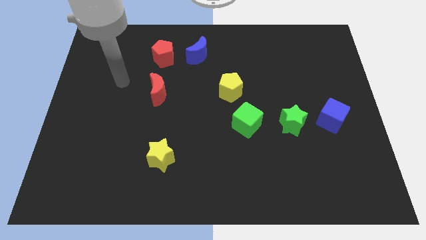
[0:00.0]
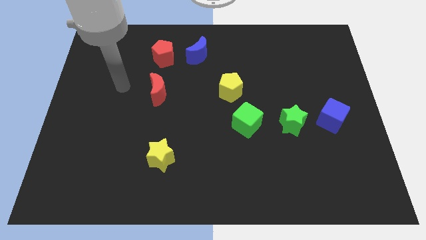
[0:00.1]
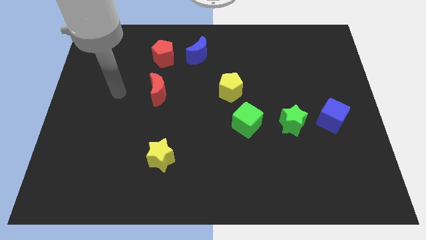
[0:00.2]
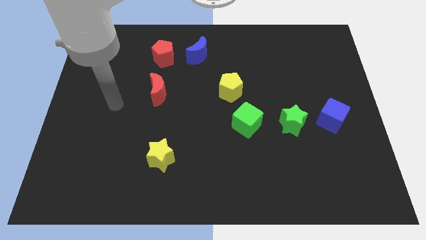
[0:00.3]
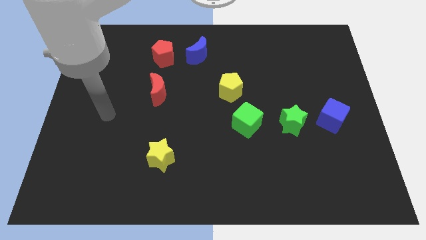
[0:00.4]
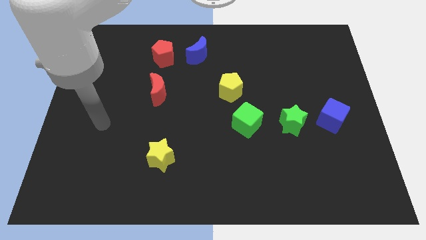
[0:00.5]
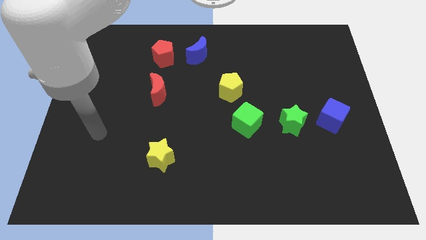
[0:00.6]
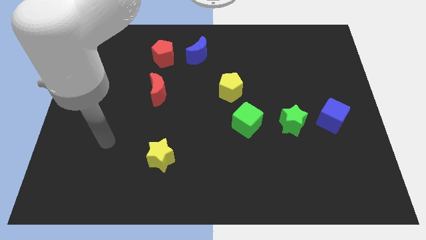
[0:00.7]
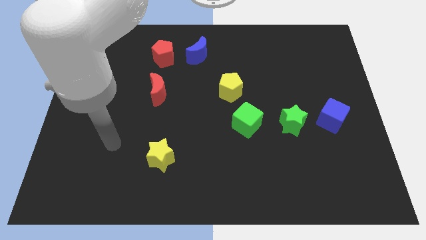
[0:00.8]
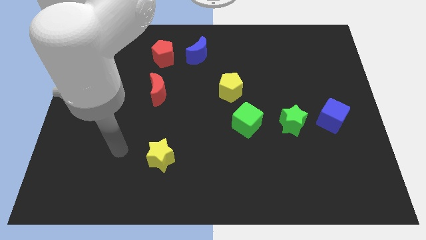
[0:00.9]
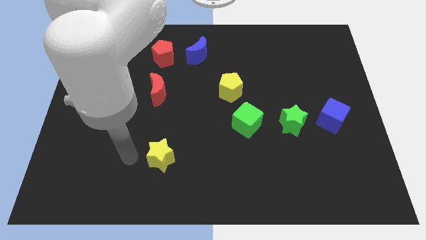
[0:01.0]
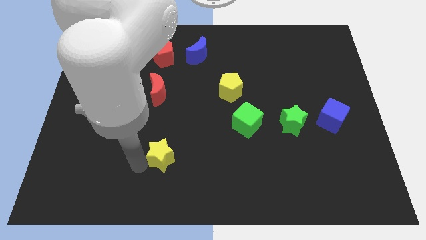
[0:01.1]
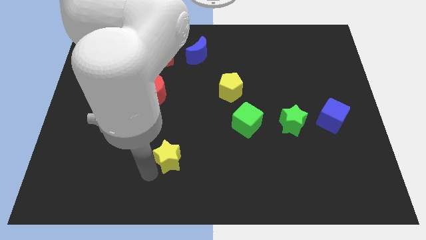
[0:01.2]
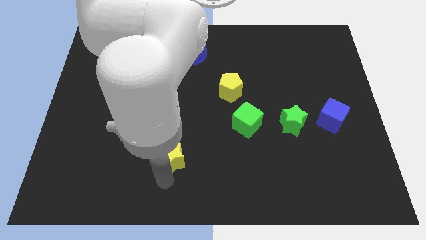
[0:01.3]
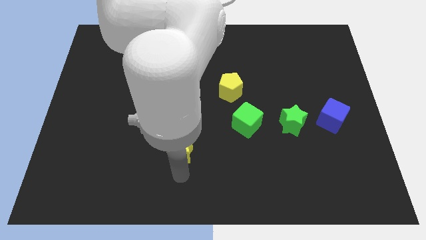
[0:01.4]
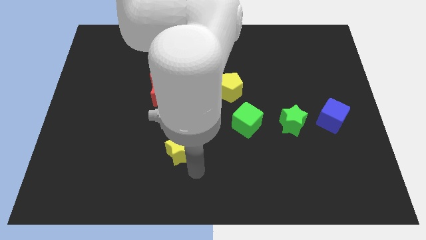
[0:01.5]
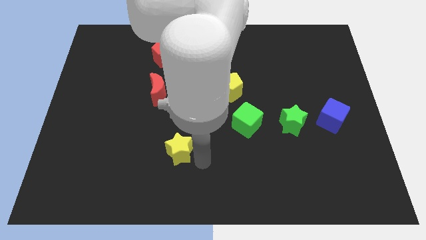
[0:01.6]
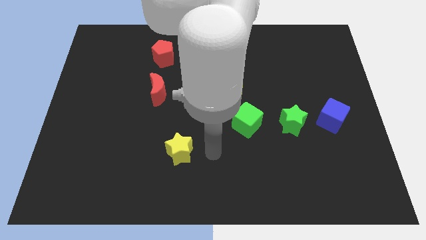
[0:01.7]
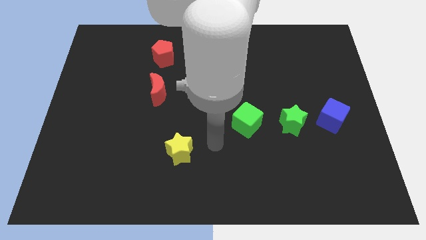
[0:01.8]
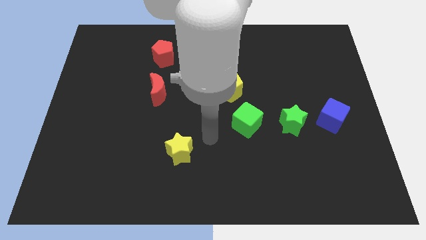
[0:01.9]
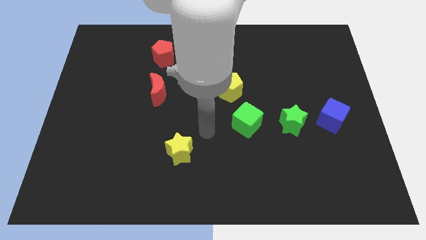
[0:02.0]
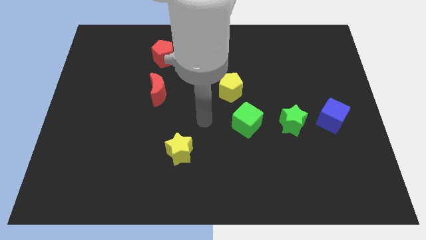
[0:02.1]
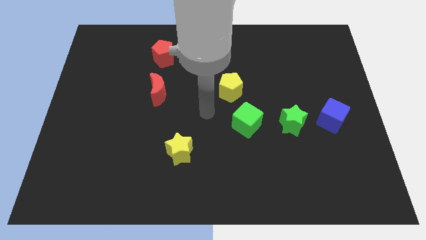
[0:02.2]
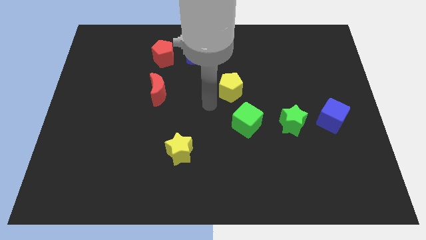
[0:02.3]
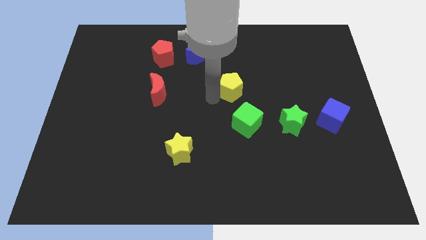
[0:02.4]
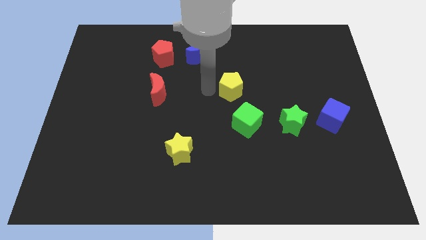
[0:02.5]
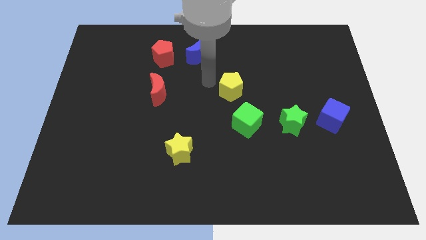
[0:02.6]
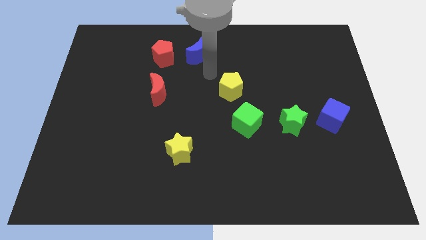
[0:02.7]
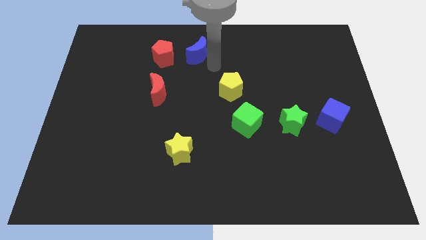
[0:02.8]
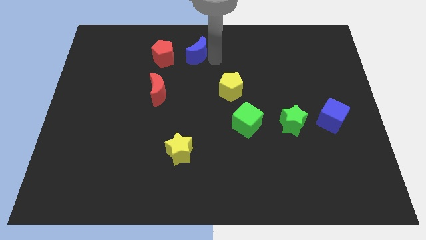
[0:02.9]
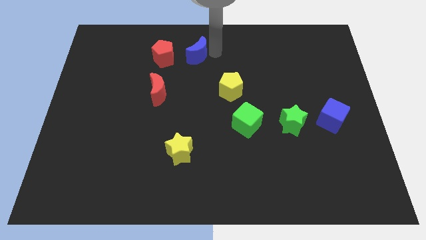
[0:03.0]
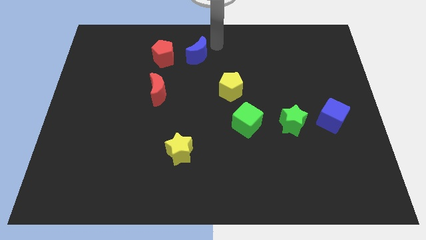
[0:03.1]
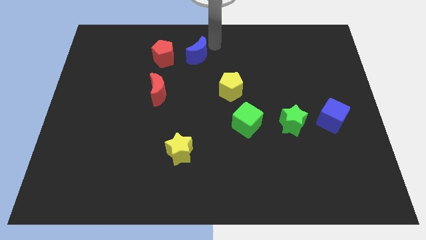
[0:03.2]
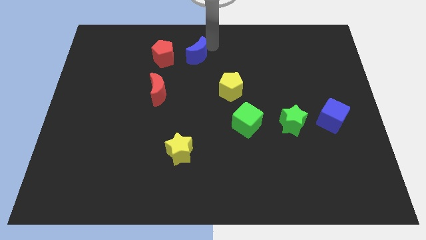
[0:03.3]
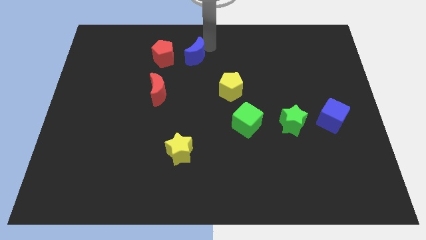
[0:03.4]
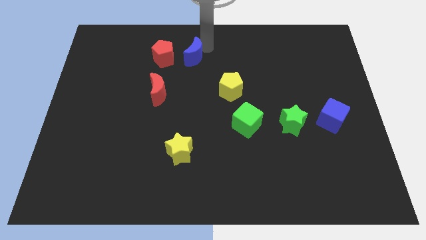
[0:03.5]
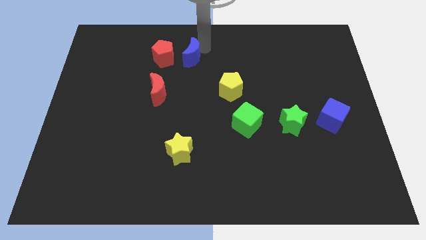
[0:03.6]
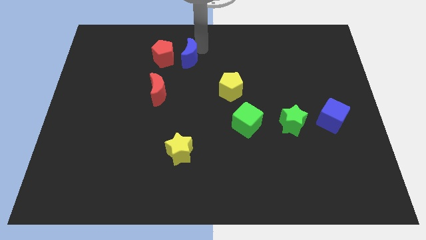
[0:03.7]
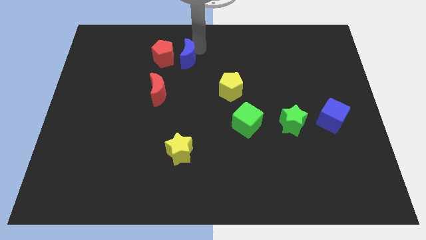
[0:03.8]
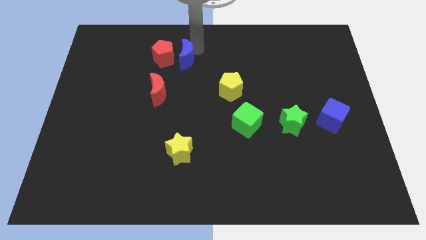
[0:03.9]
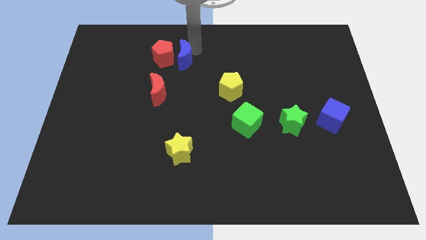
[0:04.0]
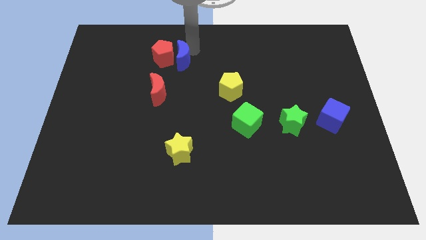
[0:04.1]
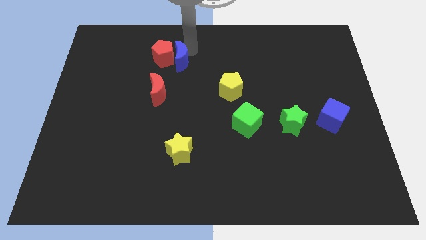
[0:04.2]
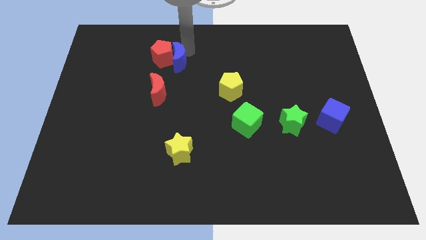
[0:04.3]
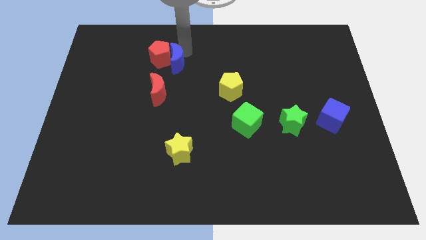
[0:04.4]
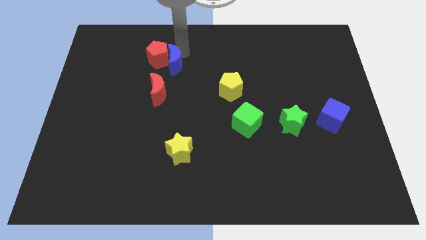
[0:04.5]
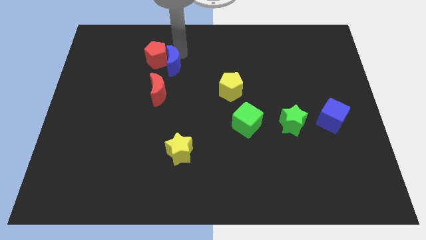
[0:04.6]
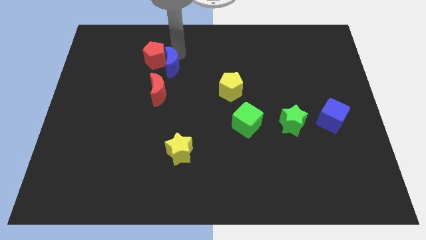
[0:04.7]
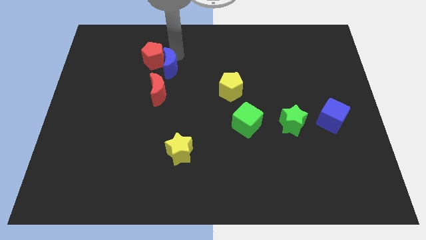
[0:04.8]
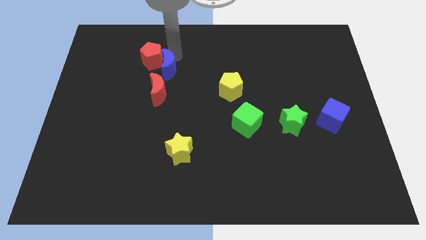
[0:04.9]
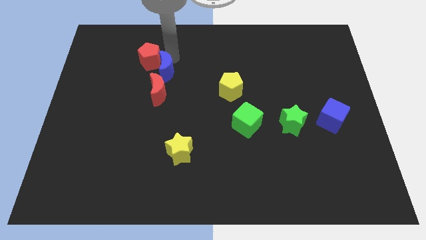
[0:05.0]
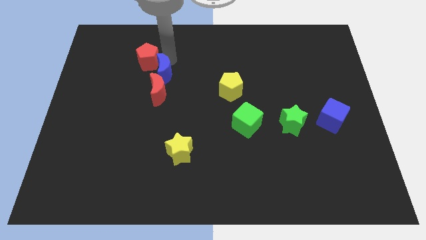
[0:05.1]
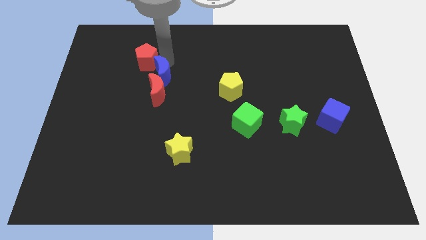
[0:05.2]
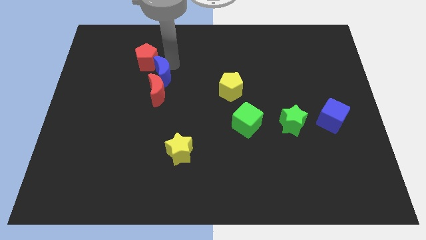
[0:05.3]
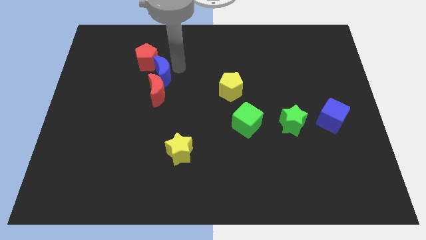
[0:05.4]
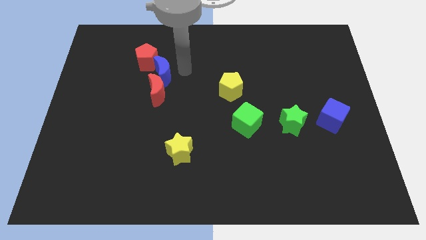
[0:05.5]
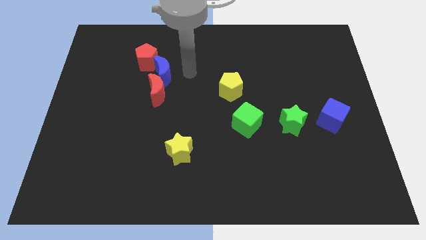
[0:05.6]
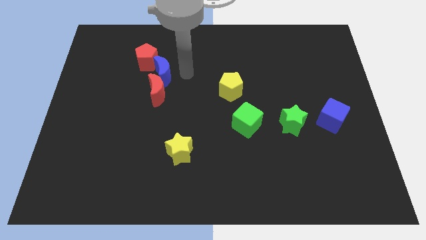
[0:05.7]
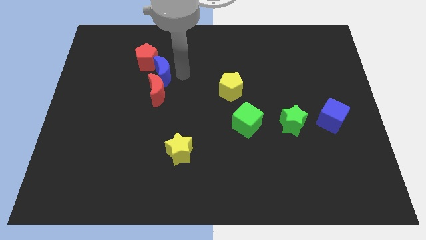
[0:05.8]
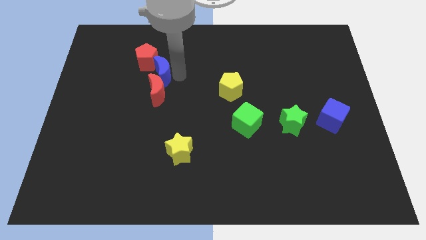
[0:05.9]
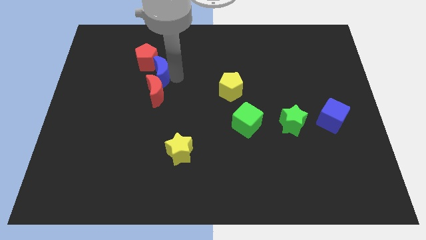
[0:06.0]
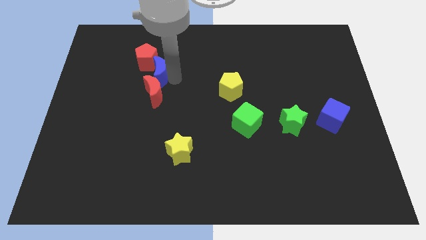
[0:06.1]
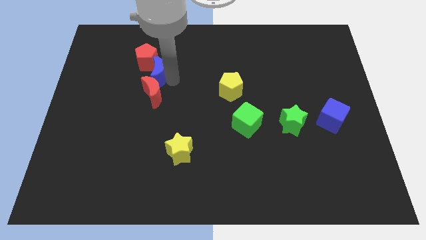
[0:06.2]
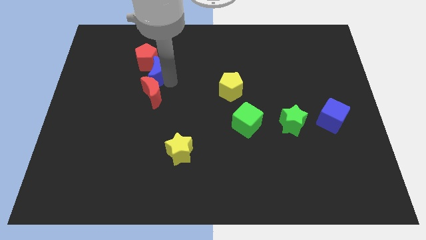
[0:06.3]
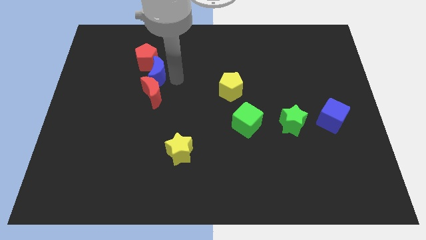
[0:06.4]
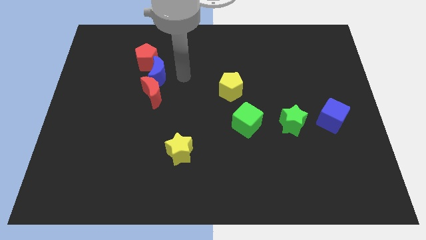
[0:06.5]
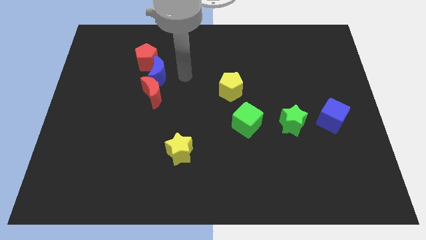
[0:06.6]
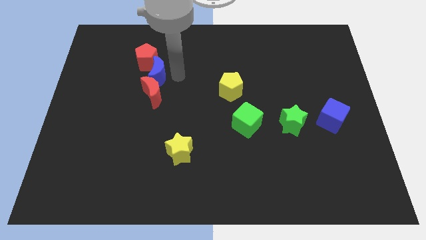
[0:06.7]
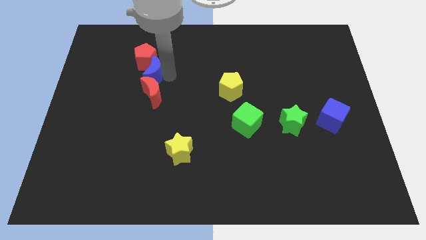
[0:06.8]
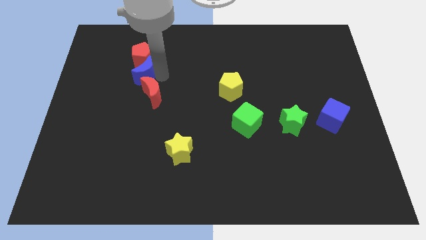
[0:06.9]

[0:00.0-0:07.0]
put the blue moon to the bottom left side of the red pentagon
